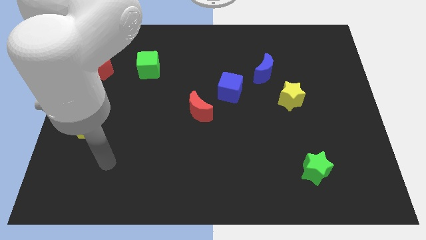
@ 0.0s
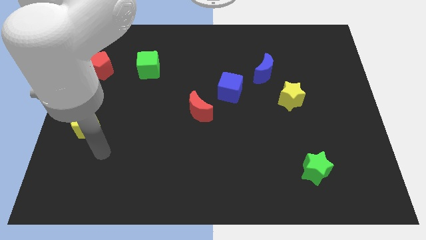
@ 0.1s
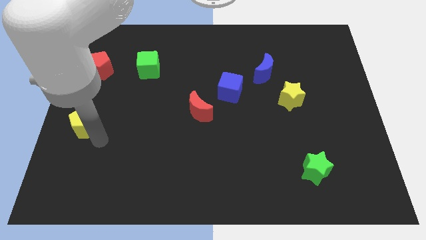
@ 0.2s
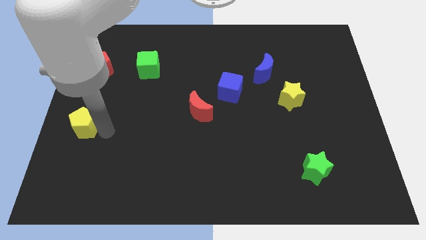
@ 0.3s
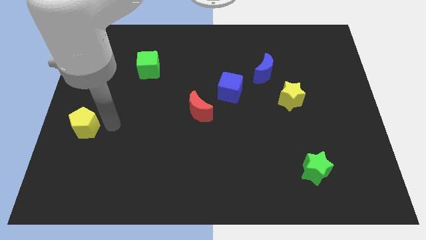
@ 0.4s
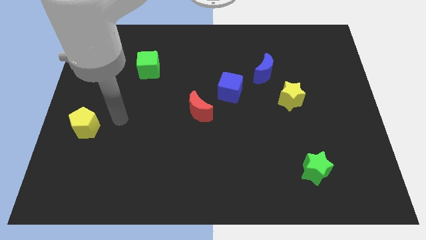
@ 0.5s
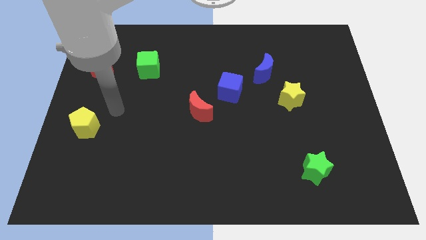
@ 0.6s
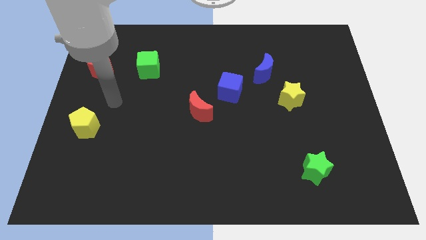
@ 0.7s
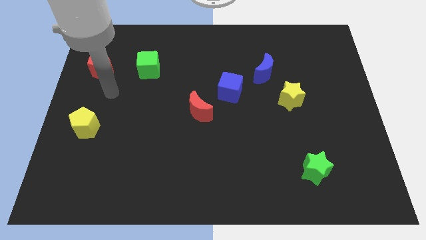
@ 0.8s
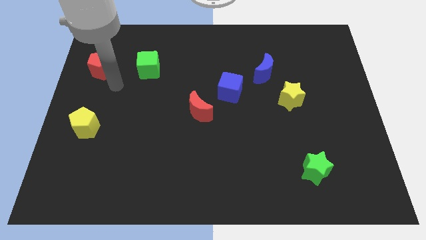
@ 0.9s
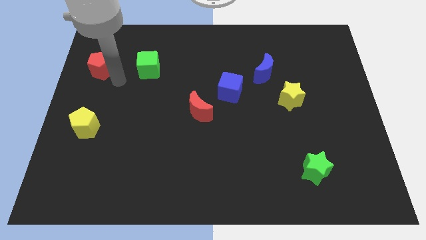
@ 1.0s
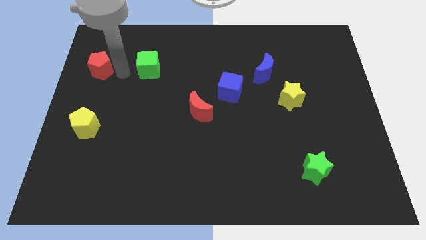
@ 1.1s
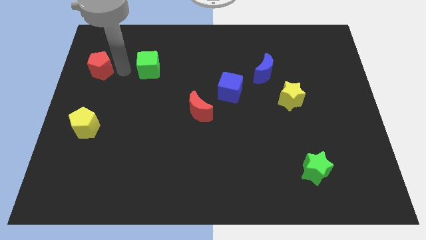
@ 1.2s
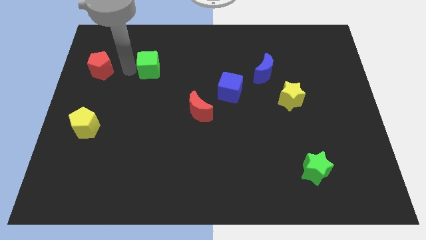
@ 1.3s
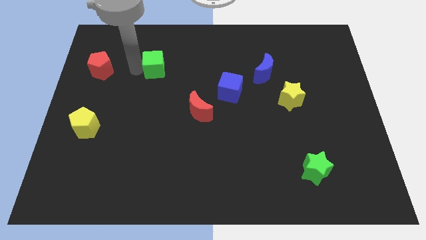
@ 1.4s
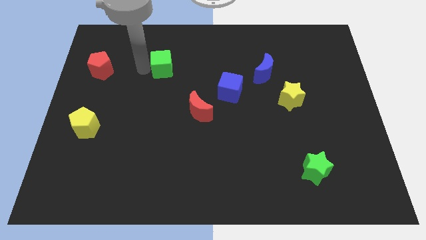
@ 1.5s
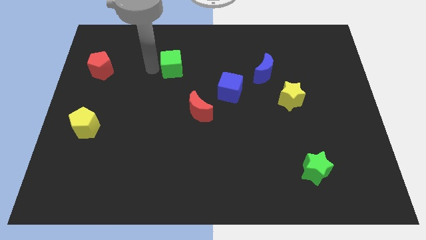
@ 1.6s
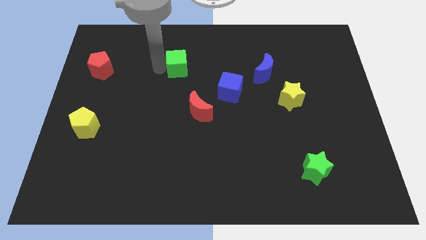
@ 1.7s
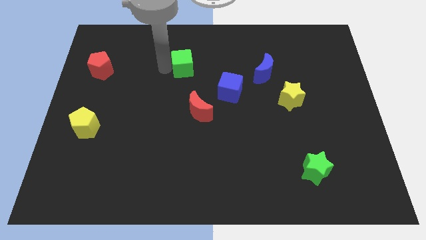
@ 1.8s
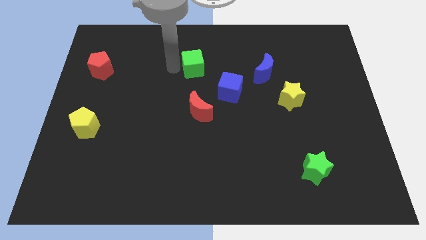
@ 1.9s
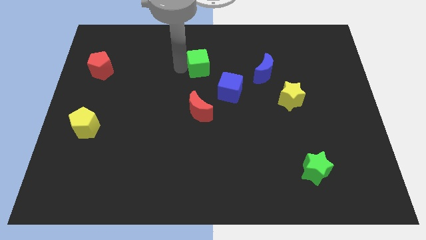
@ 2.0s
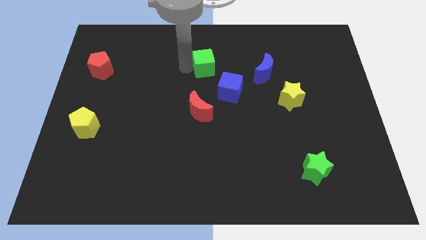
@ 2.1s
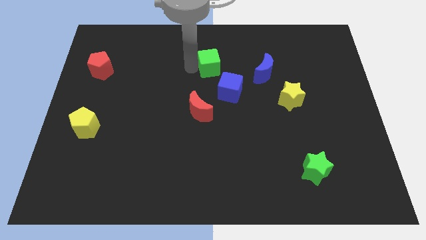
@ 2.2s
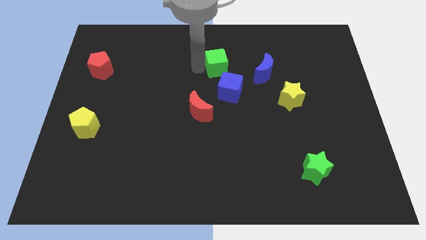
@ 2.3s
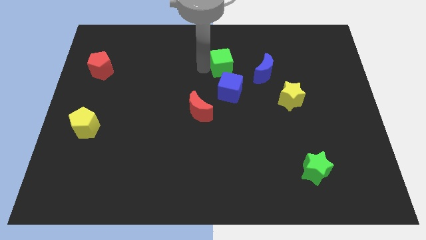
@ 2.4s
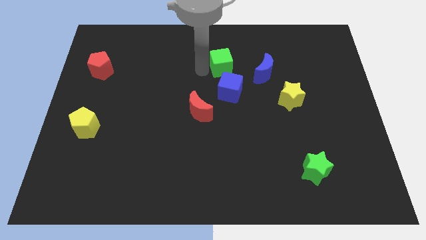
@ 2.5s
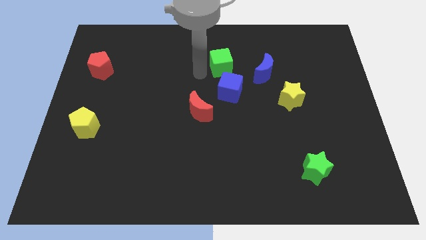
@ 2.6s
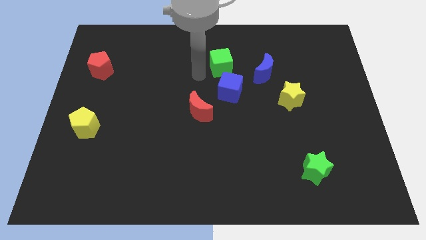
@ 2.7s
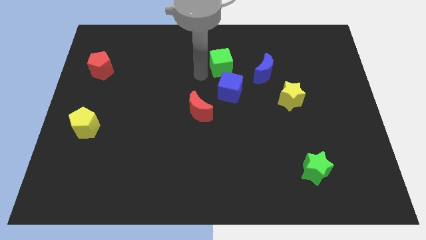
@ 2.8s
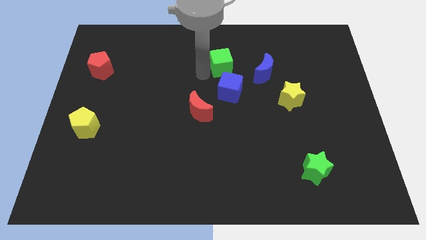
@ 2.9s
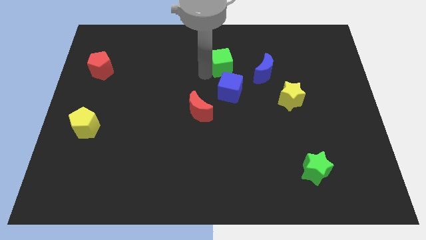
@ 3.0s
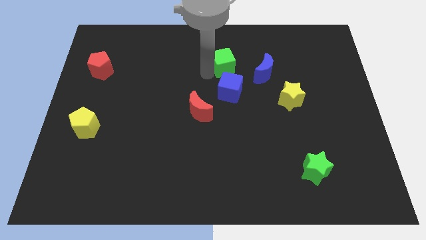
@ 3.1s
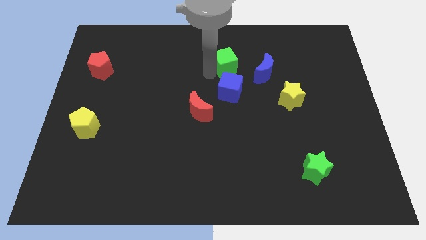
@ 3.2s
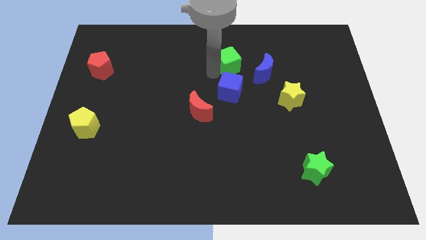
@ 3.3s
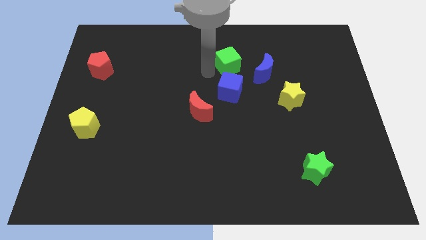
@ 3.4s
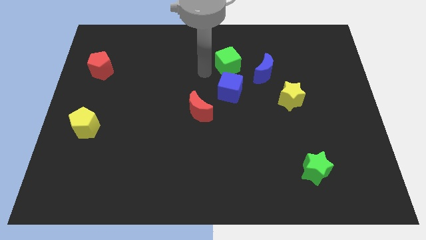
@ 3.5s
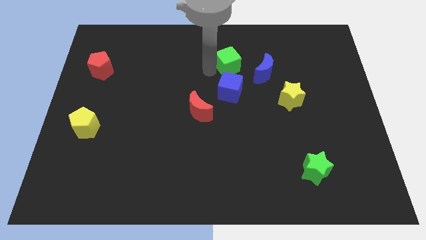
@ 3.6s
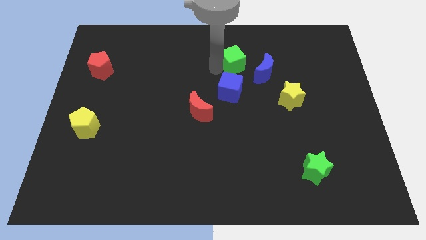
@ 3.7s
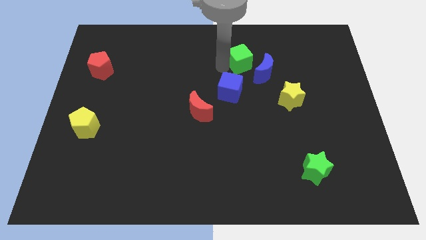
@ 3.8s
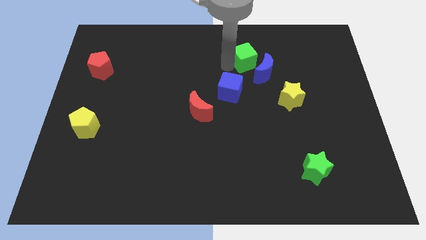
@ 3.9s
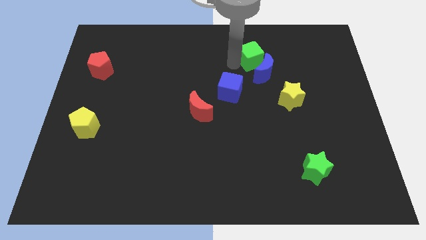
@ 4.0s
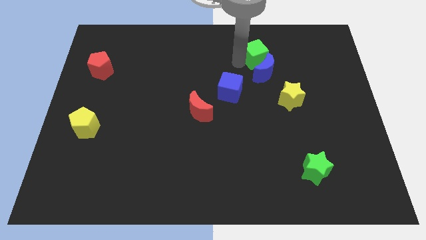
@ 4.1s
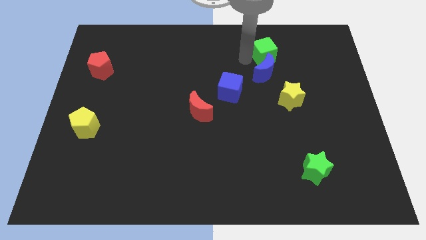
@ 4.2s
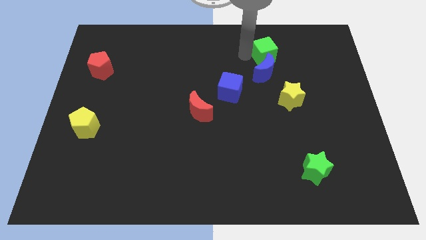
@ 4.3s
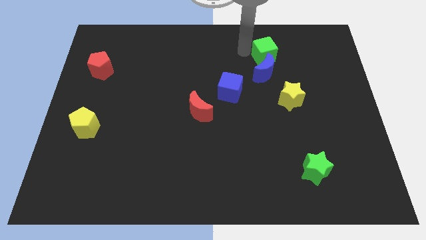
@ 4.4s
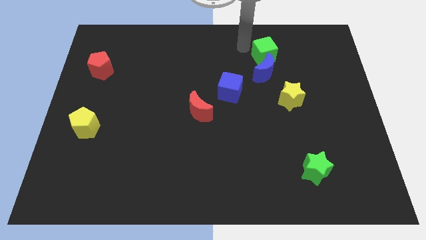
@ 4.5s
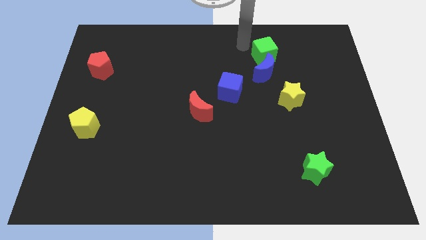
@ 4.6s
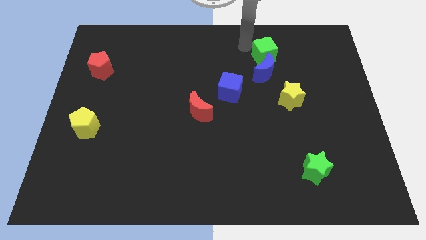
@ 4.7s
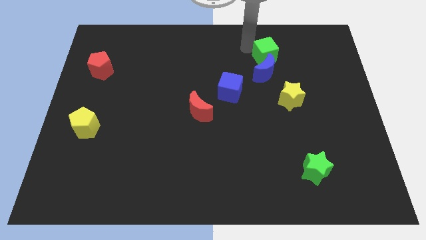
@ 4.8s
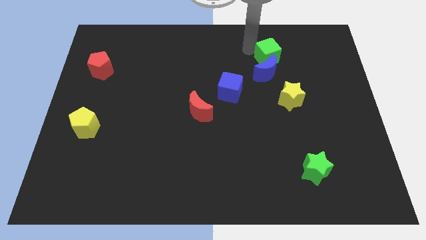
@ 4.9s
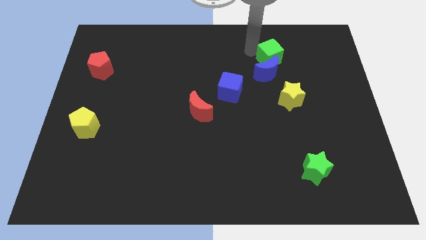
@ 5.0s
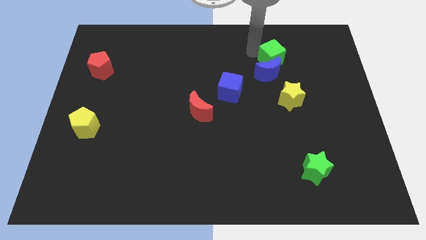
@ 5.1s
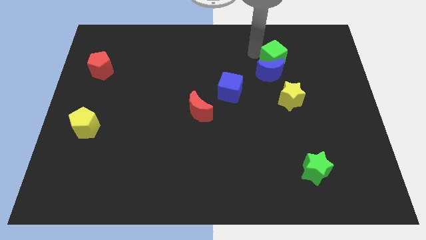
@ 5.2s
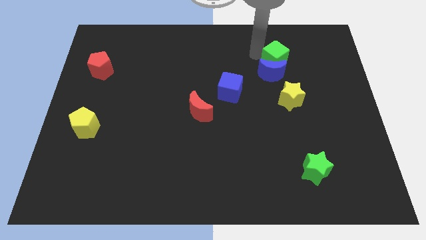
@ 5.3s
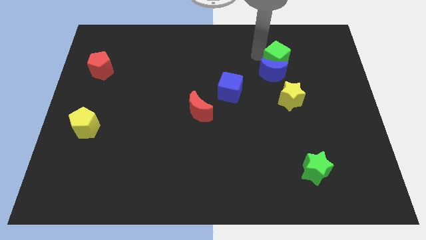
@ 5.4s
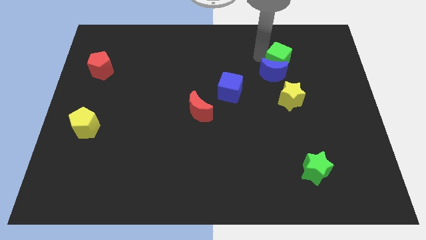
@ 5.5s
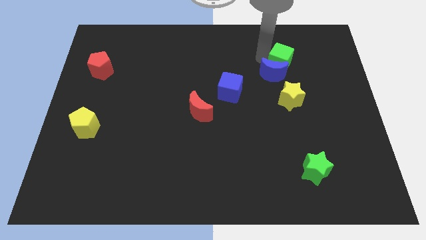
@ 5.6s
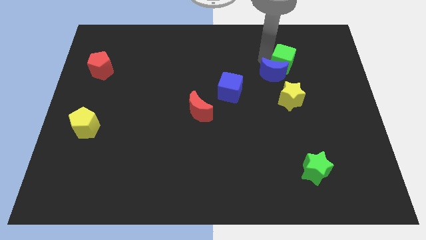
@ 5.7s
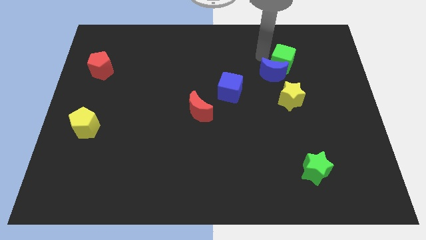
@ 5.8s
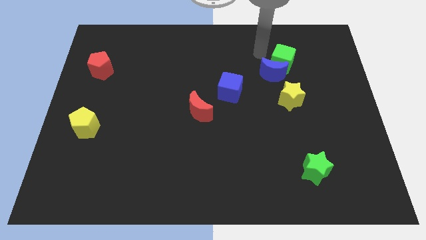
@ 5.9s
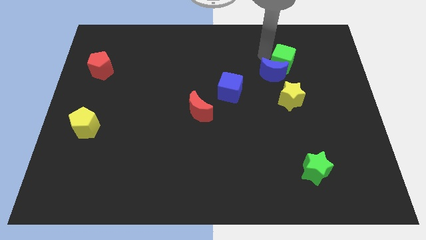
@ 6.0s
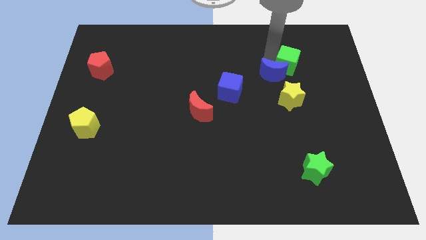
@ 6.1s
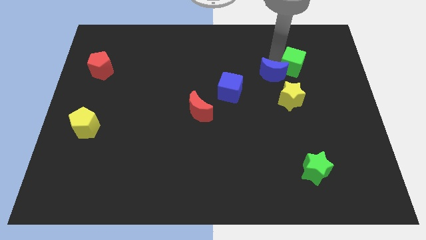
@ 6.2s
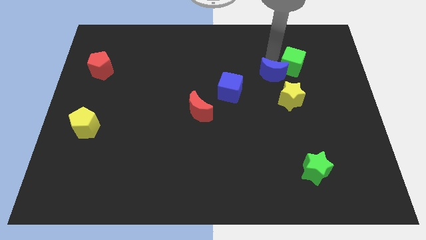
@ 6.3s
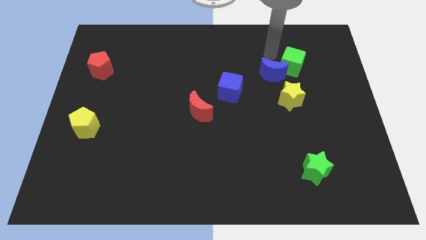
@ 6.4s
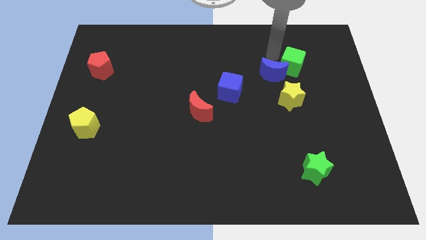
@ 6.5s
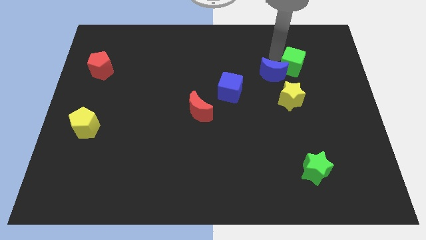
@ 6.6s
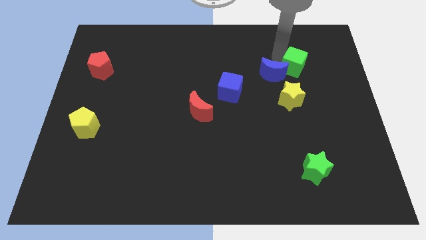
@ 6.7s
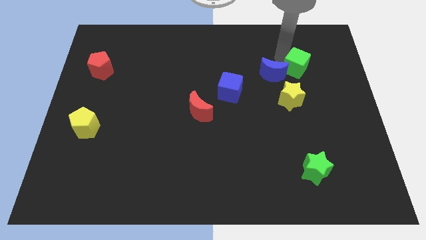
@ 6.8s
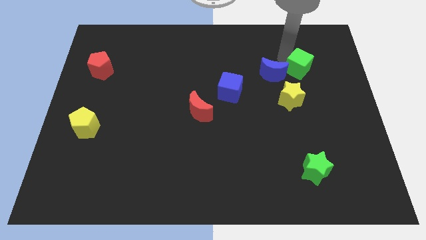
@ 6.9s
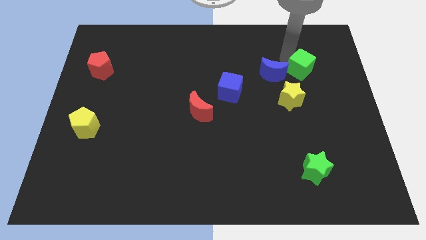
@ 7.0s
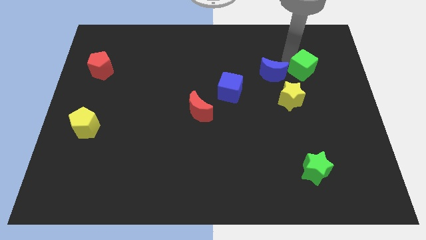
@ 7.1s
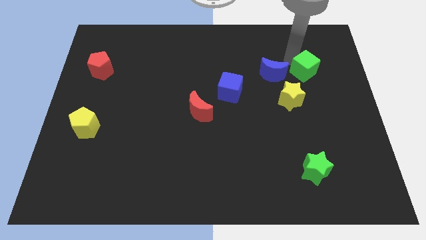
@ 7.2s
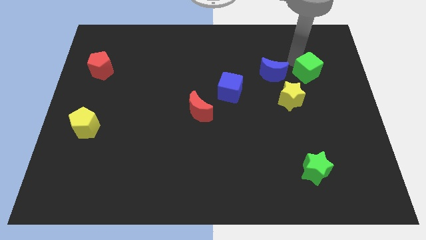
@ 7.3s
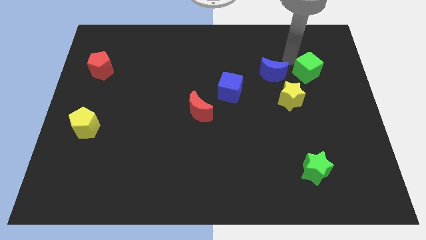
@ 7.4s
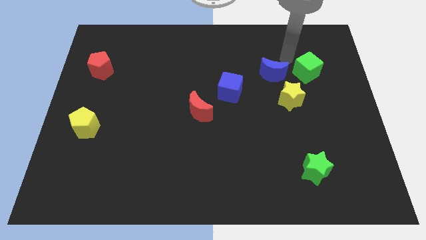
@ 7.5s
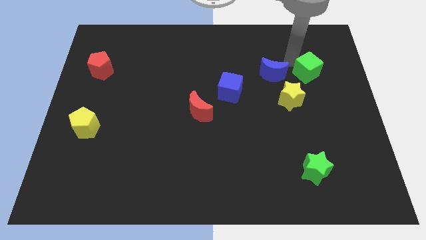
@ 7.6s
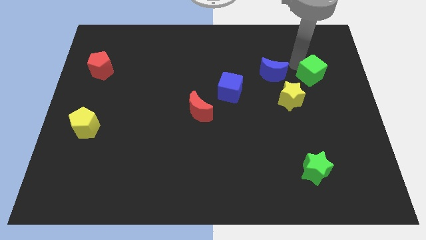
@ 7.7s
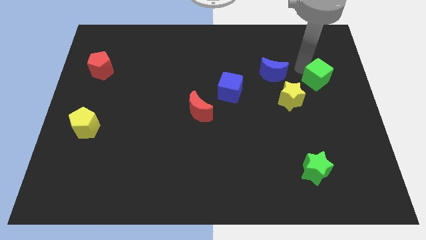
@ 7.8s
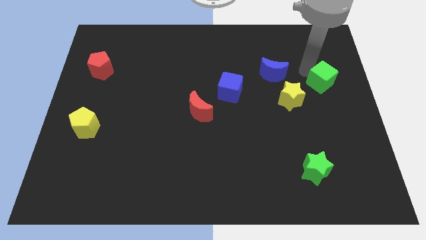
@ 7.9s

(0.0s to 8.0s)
push the green cube to the right side
